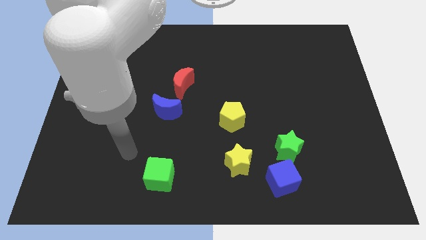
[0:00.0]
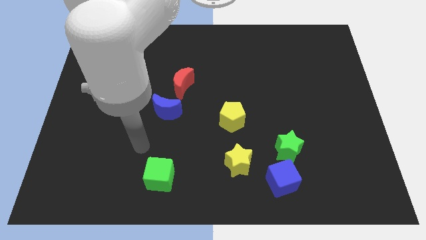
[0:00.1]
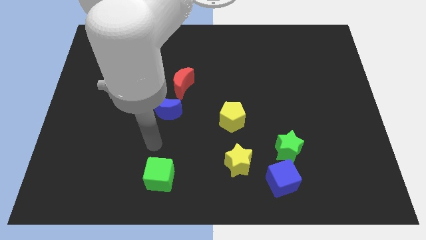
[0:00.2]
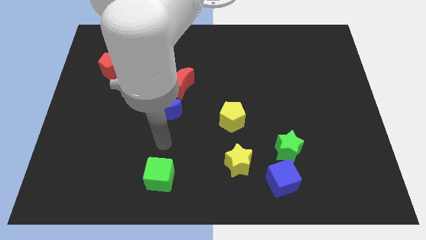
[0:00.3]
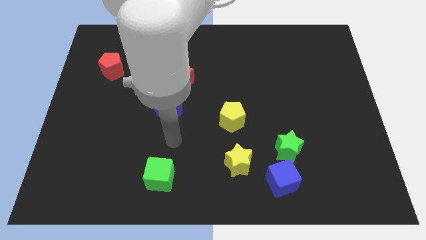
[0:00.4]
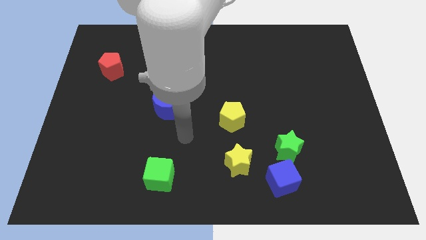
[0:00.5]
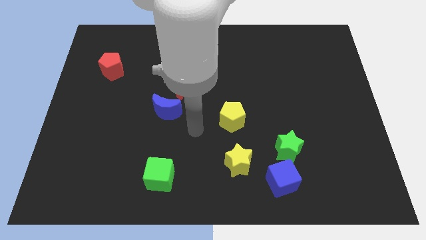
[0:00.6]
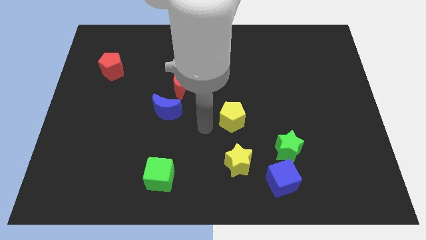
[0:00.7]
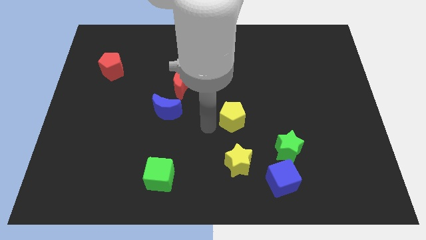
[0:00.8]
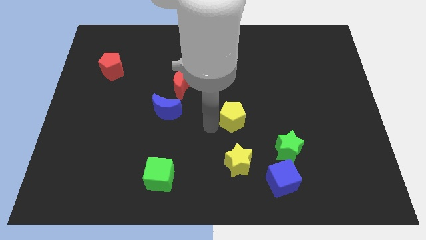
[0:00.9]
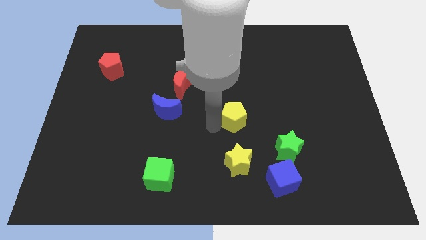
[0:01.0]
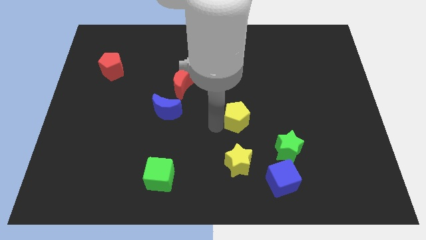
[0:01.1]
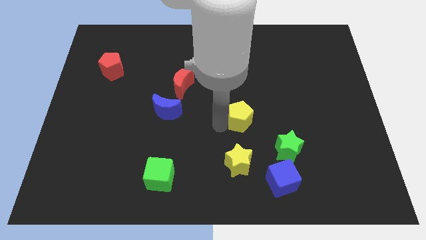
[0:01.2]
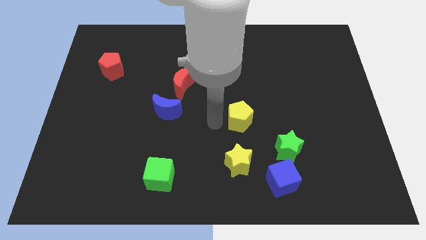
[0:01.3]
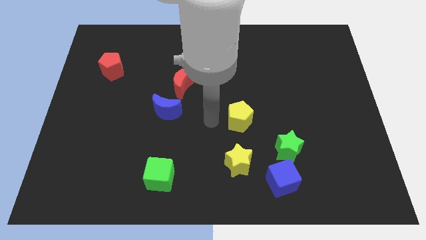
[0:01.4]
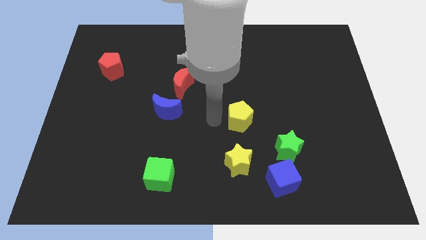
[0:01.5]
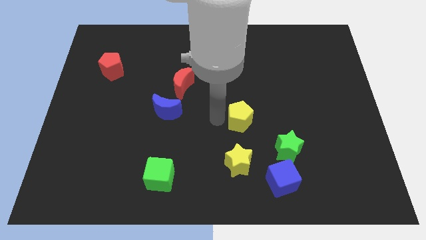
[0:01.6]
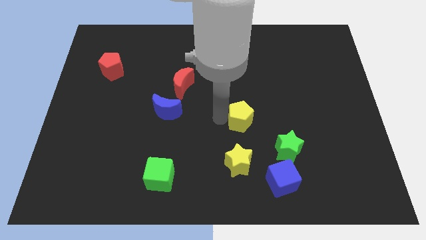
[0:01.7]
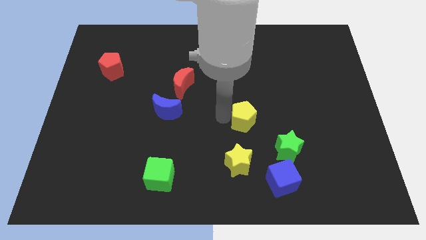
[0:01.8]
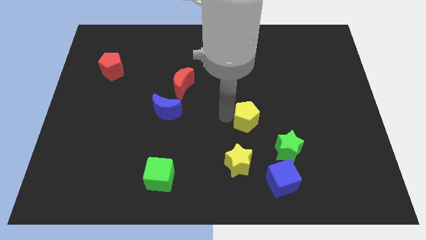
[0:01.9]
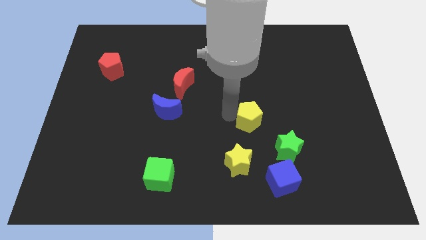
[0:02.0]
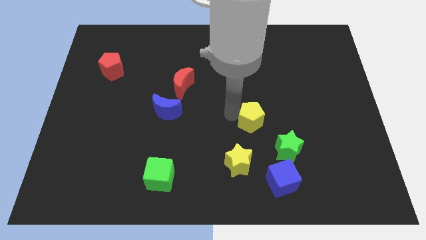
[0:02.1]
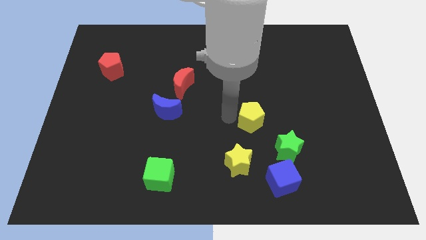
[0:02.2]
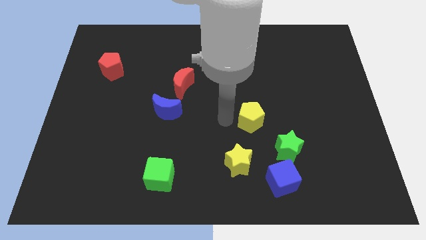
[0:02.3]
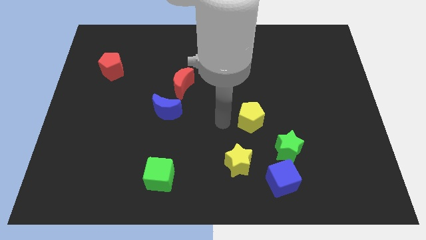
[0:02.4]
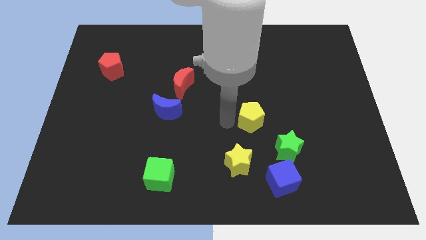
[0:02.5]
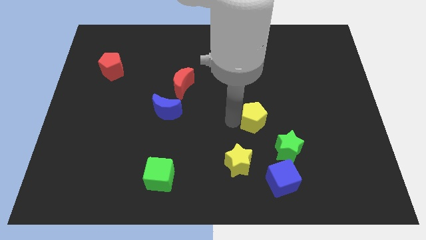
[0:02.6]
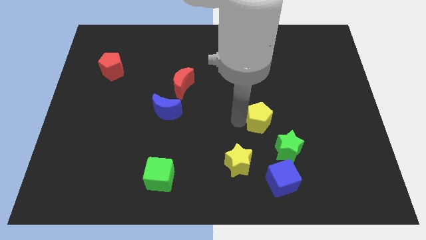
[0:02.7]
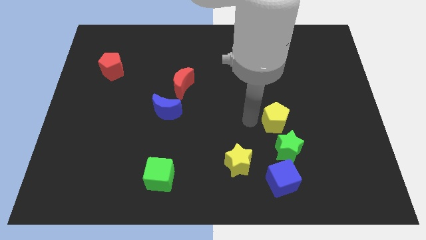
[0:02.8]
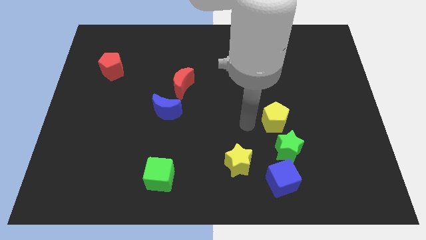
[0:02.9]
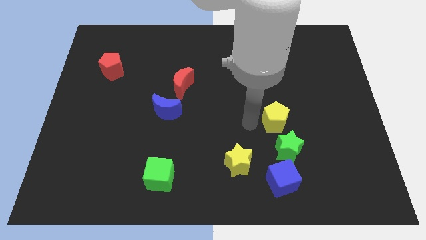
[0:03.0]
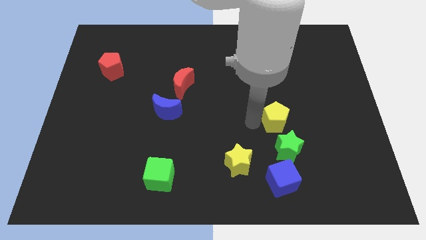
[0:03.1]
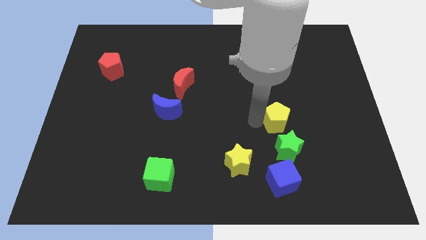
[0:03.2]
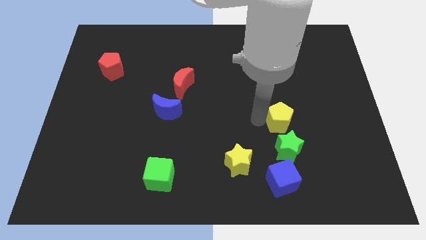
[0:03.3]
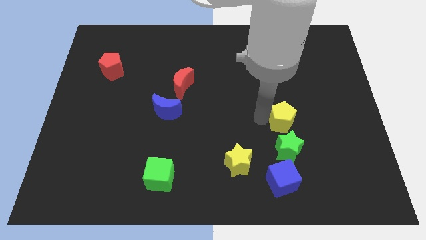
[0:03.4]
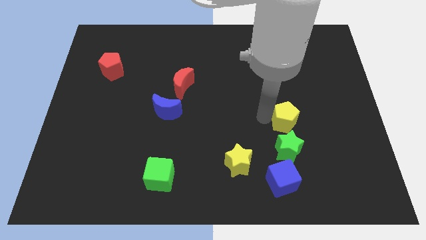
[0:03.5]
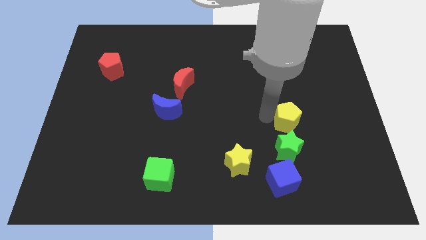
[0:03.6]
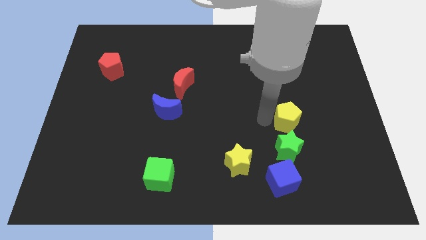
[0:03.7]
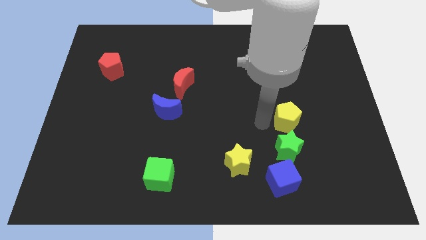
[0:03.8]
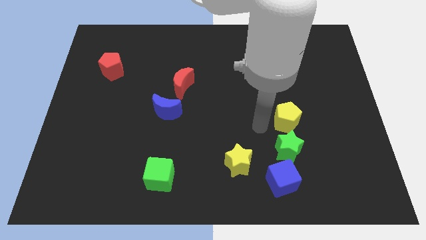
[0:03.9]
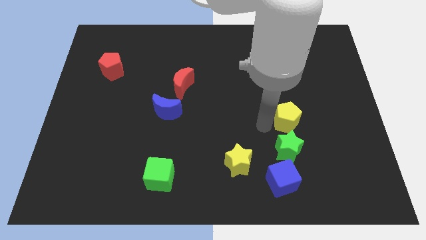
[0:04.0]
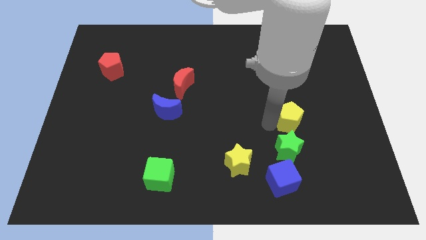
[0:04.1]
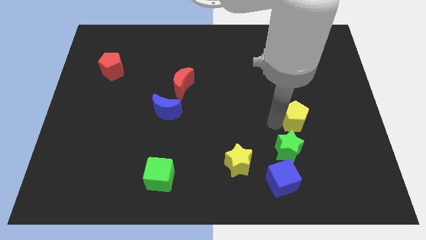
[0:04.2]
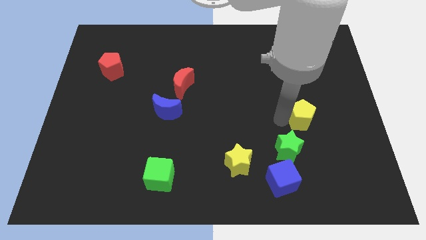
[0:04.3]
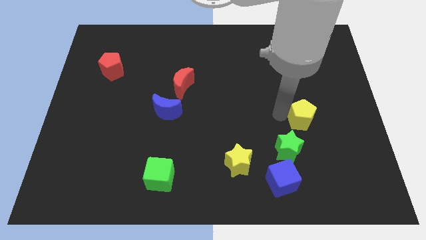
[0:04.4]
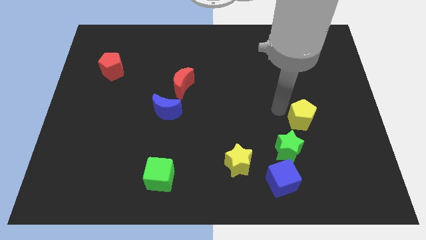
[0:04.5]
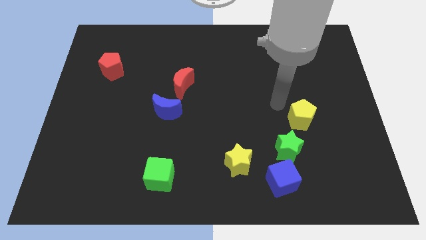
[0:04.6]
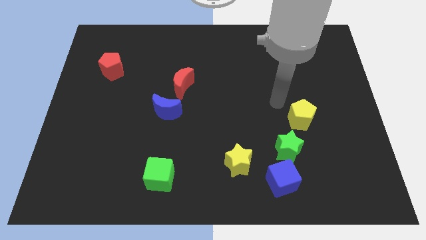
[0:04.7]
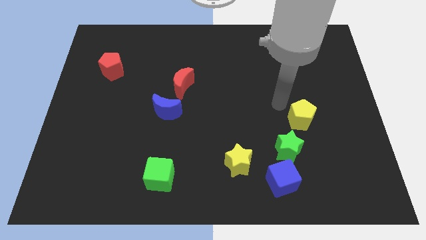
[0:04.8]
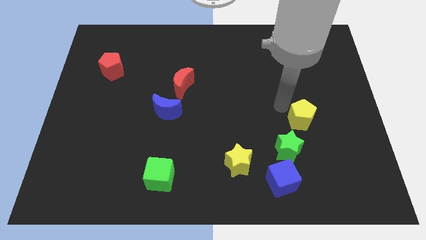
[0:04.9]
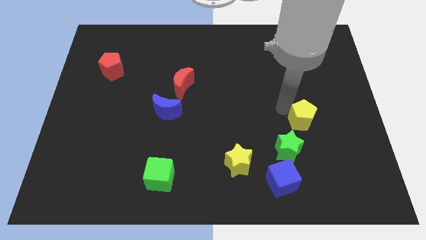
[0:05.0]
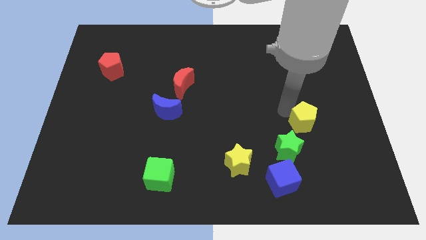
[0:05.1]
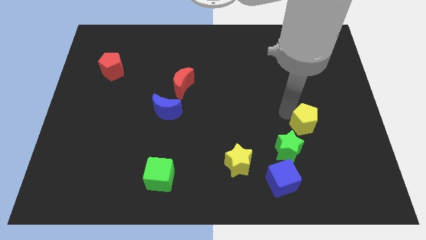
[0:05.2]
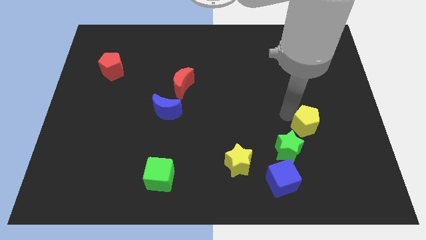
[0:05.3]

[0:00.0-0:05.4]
slide the yellow pentagon slightly down and then to the right

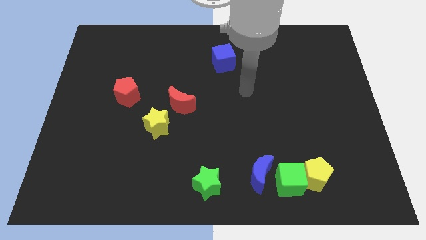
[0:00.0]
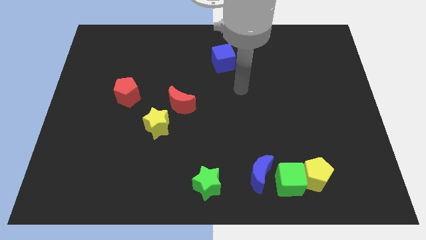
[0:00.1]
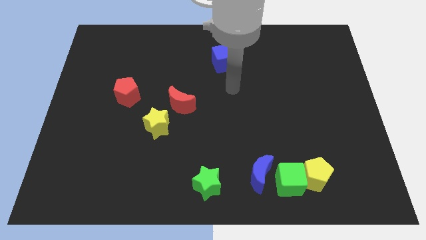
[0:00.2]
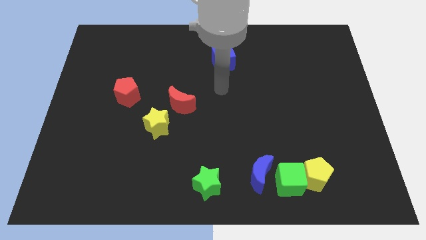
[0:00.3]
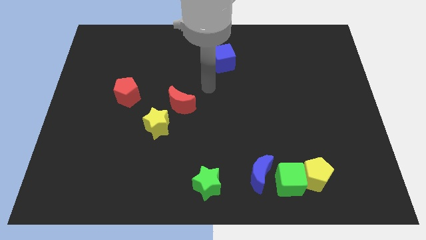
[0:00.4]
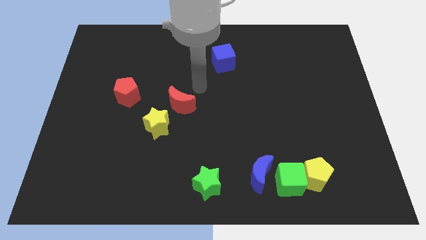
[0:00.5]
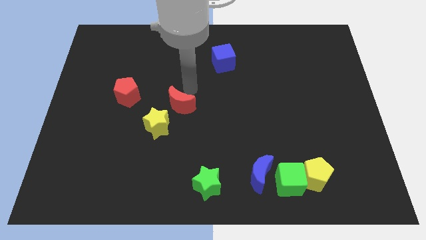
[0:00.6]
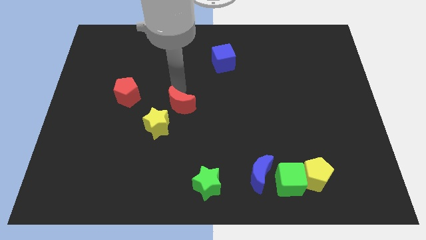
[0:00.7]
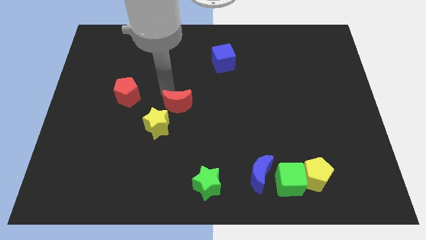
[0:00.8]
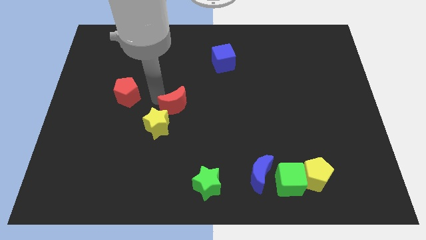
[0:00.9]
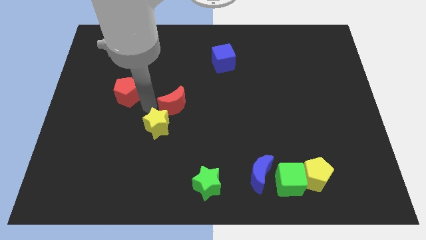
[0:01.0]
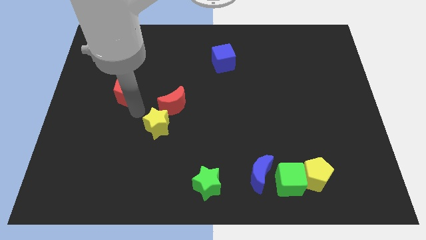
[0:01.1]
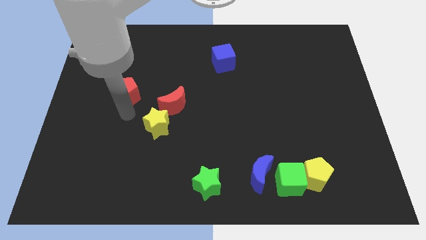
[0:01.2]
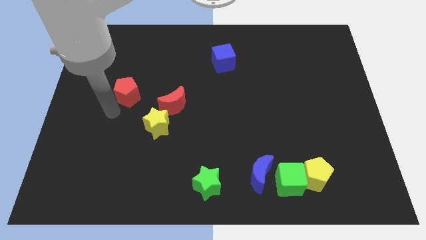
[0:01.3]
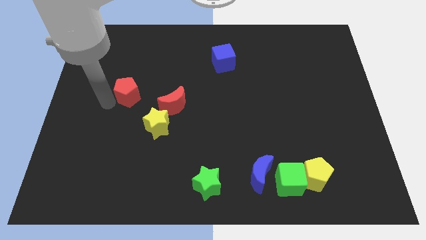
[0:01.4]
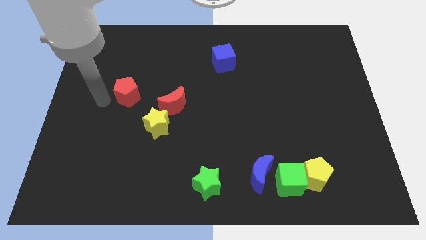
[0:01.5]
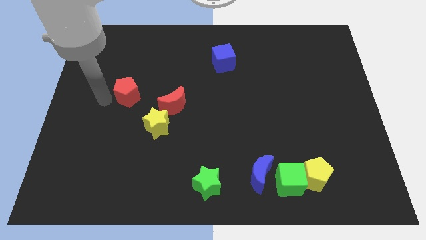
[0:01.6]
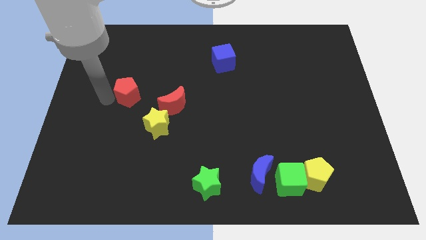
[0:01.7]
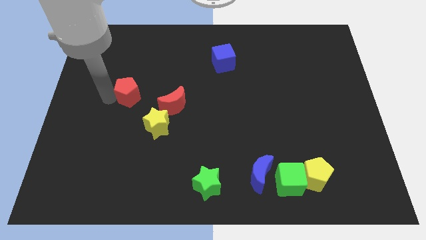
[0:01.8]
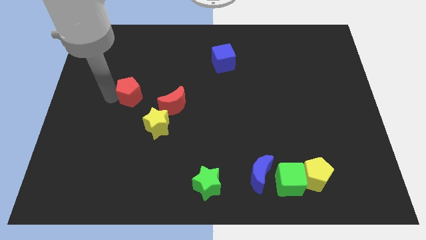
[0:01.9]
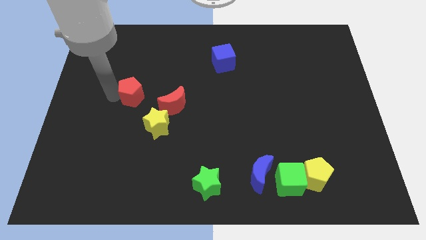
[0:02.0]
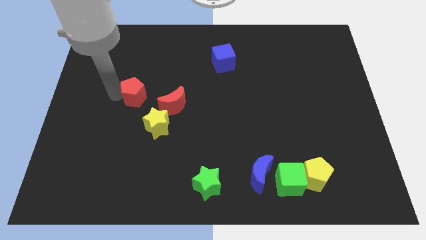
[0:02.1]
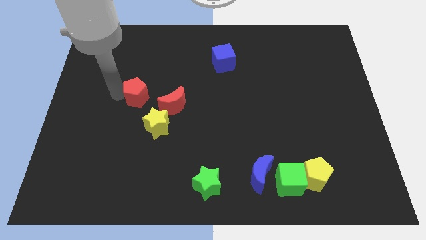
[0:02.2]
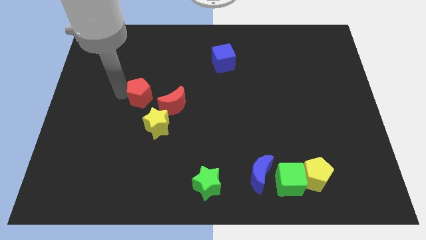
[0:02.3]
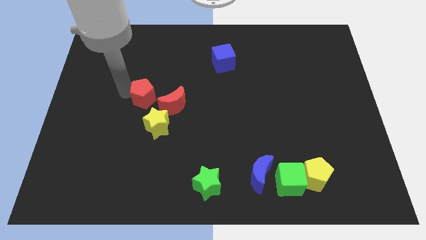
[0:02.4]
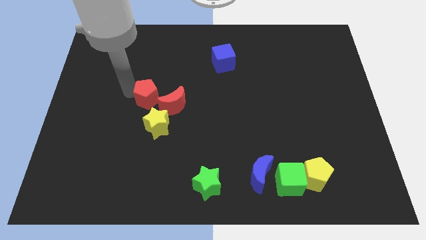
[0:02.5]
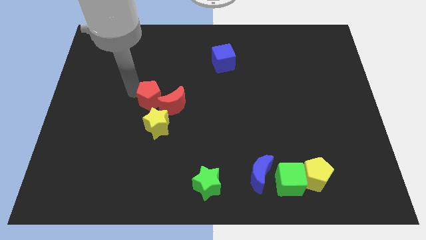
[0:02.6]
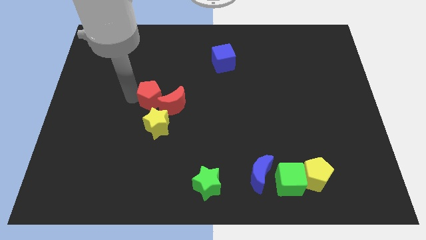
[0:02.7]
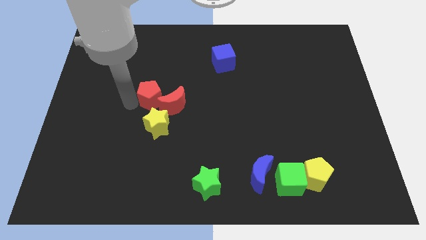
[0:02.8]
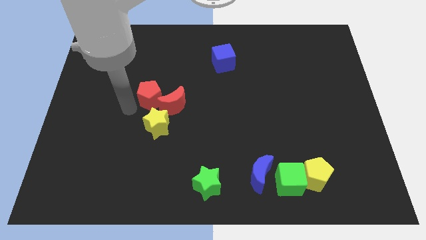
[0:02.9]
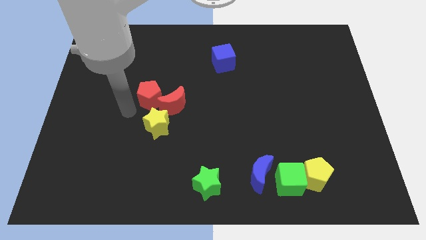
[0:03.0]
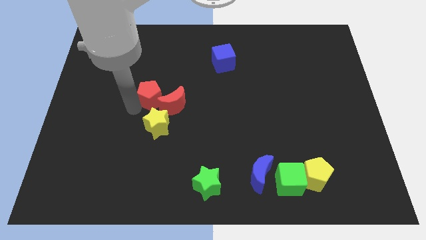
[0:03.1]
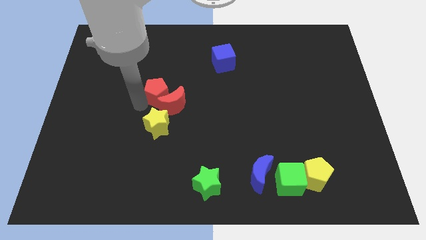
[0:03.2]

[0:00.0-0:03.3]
slightly push the red pentagon right
